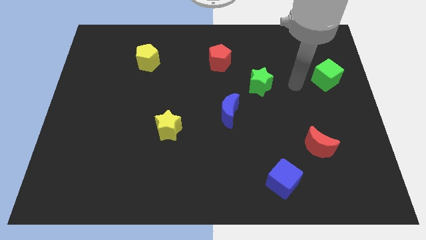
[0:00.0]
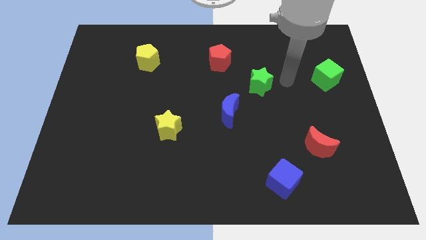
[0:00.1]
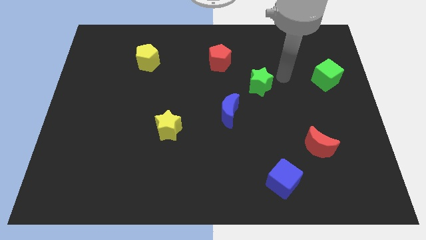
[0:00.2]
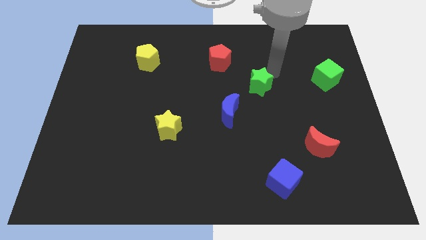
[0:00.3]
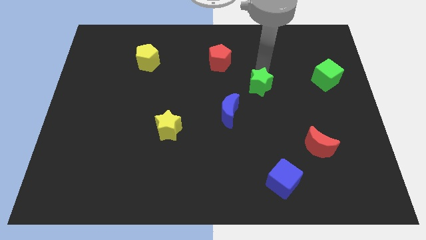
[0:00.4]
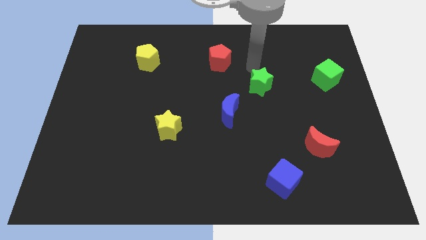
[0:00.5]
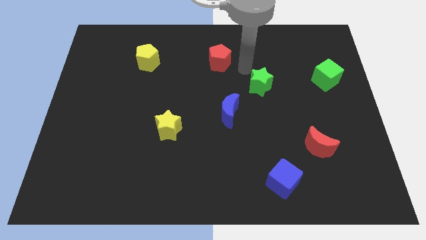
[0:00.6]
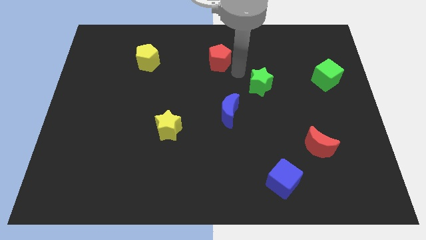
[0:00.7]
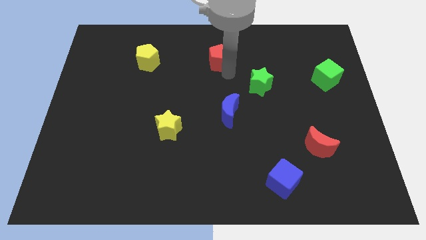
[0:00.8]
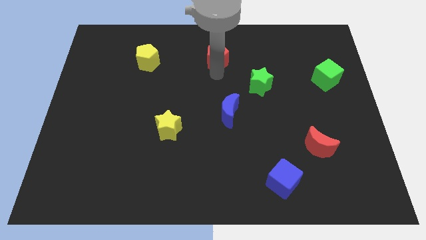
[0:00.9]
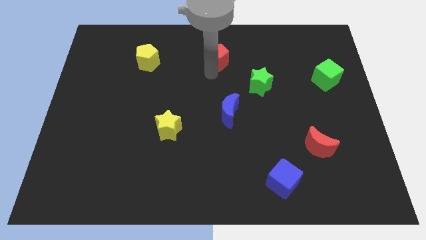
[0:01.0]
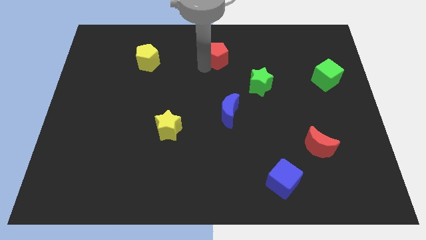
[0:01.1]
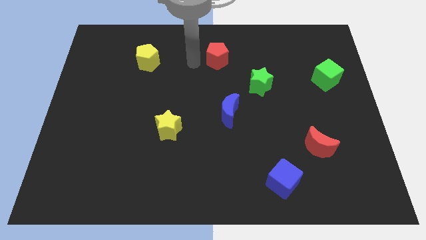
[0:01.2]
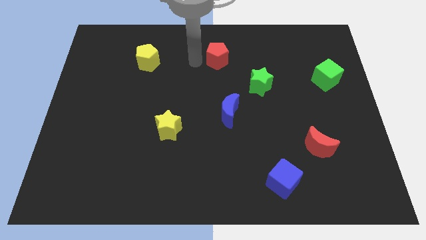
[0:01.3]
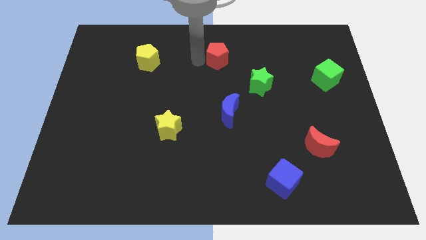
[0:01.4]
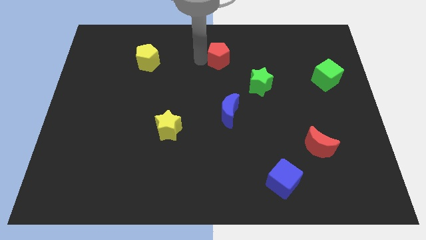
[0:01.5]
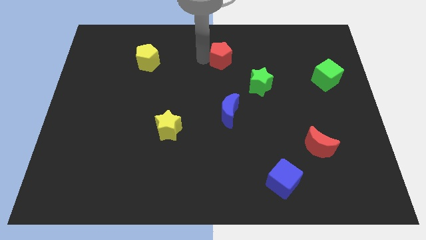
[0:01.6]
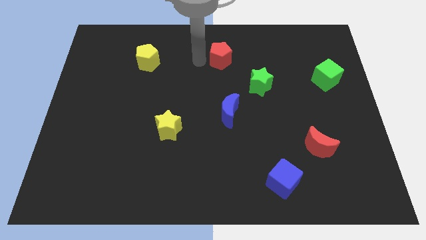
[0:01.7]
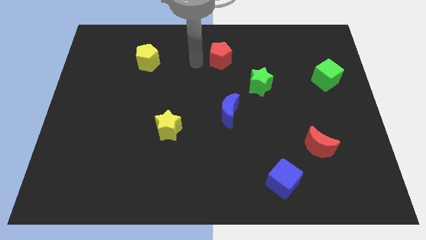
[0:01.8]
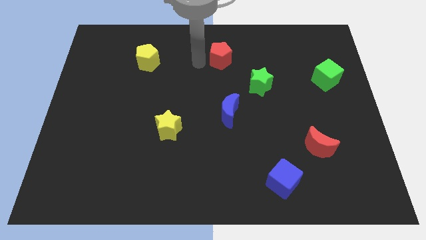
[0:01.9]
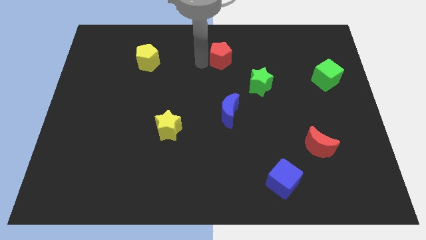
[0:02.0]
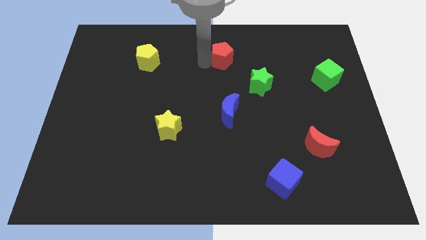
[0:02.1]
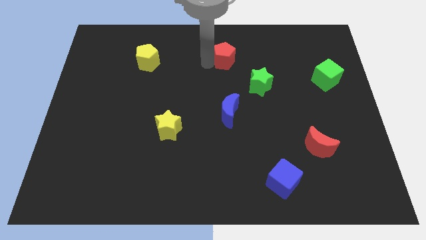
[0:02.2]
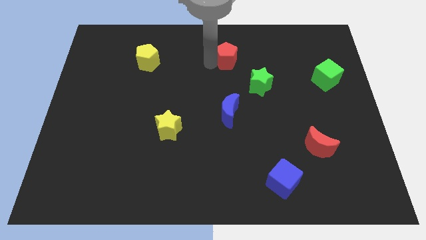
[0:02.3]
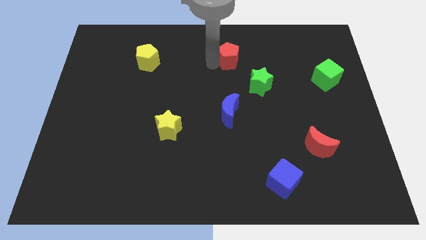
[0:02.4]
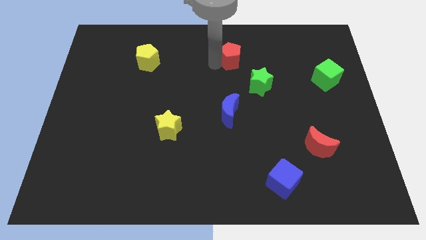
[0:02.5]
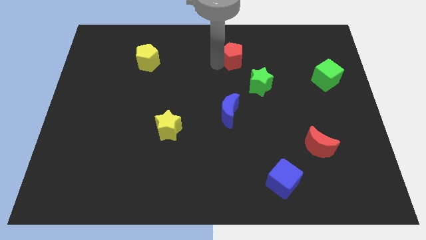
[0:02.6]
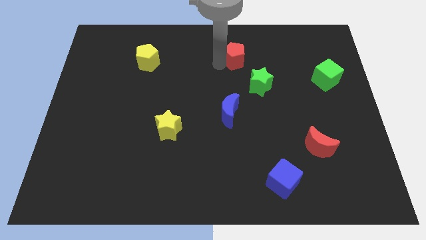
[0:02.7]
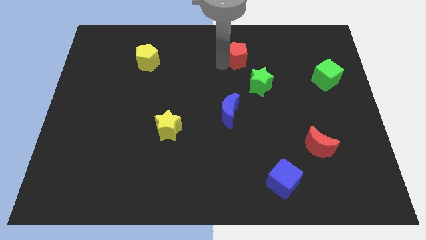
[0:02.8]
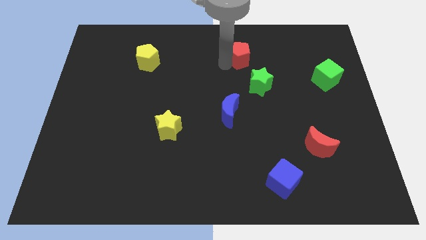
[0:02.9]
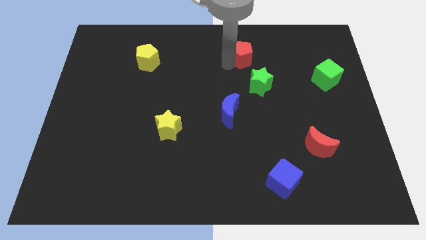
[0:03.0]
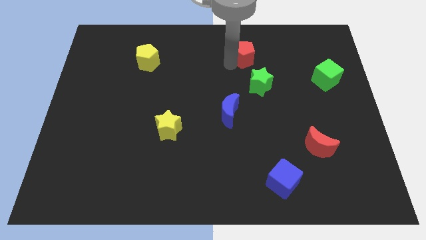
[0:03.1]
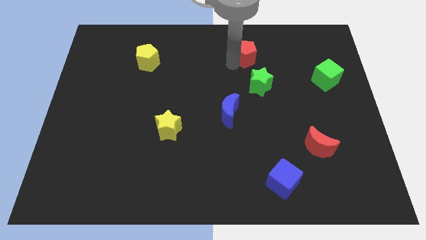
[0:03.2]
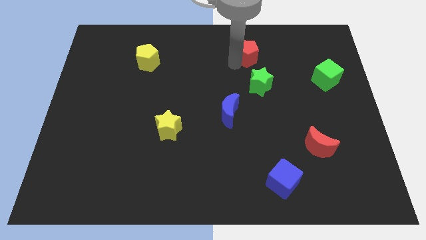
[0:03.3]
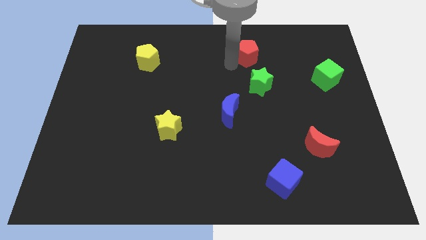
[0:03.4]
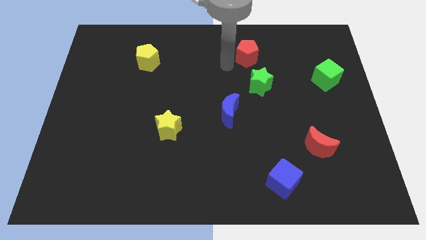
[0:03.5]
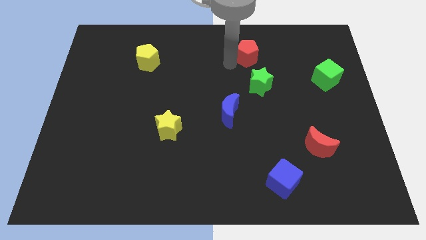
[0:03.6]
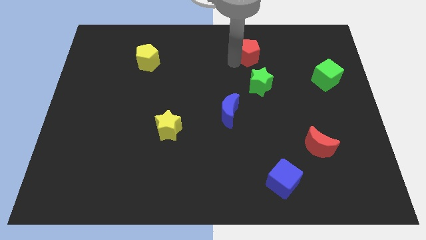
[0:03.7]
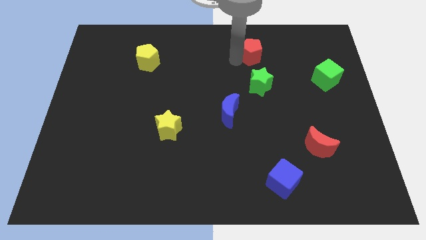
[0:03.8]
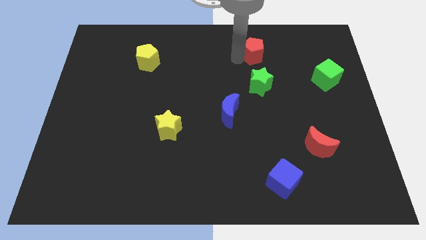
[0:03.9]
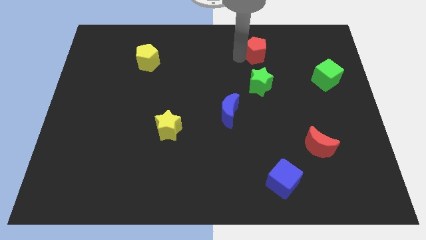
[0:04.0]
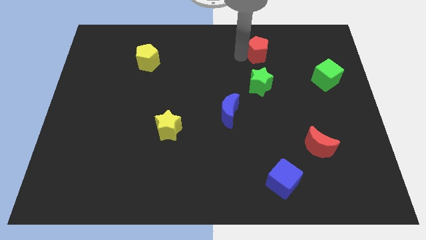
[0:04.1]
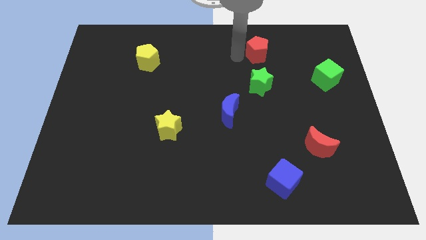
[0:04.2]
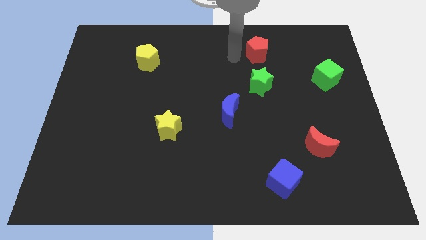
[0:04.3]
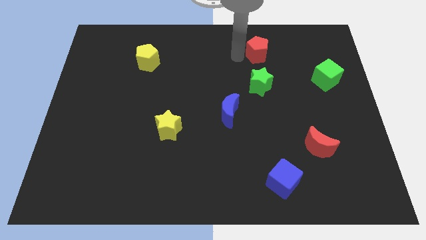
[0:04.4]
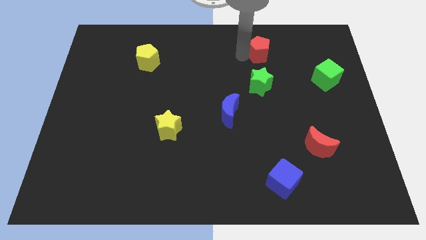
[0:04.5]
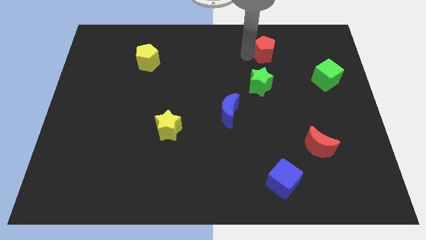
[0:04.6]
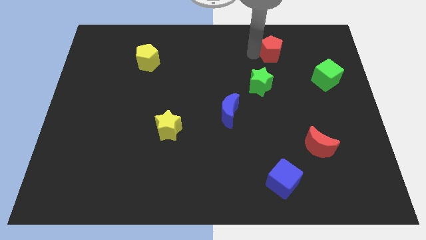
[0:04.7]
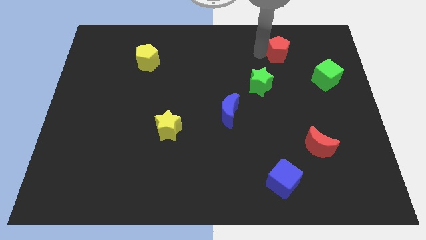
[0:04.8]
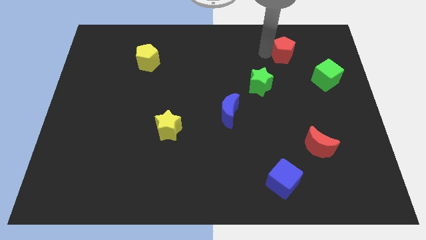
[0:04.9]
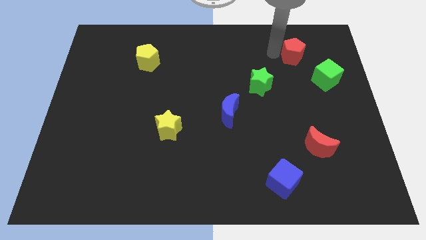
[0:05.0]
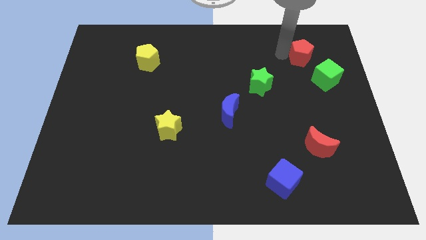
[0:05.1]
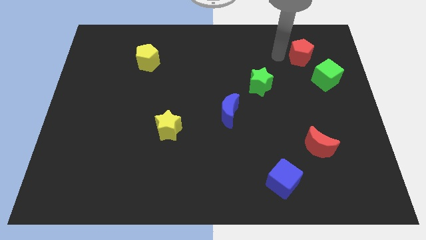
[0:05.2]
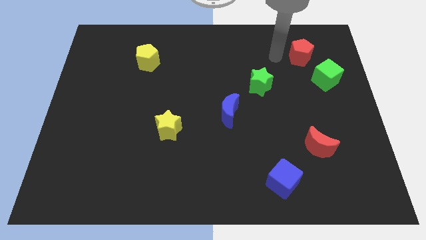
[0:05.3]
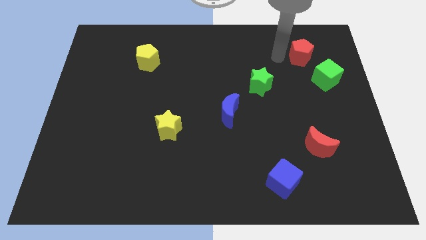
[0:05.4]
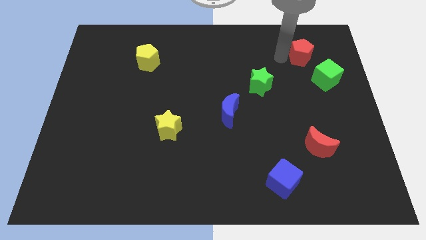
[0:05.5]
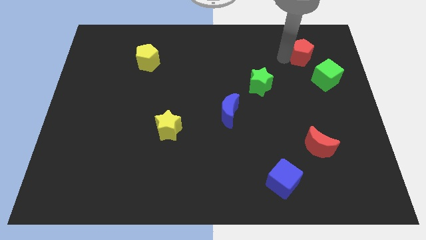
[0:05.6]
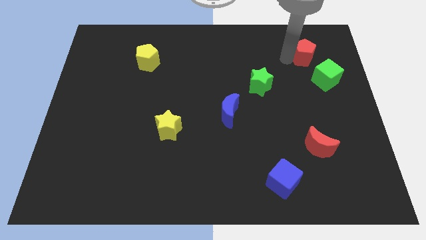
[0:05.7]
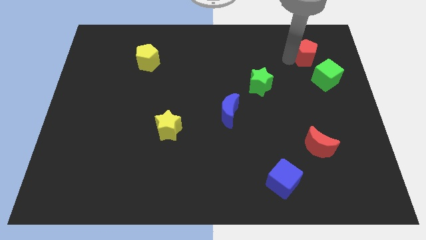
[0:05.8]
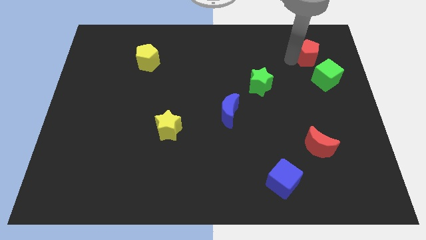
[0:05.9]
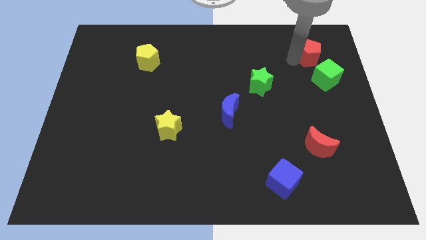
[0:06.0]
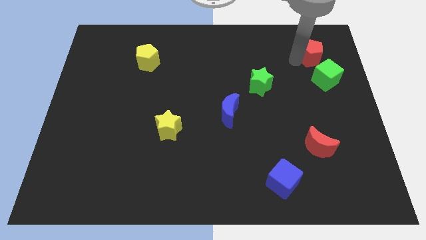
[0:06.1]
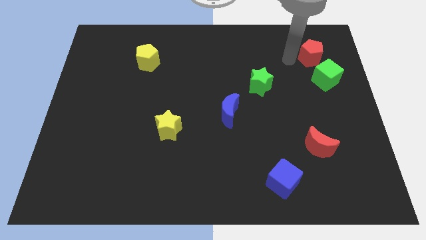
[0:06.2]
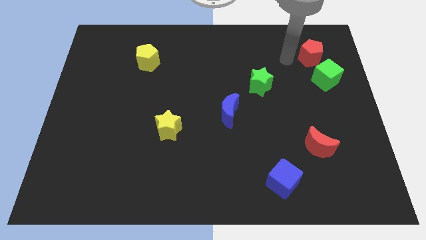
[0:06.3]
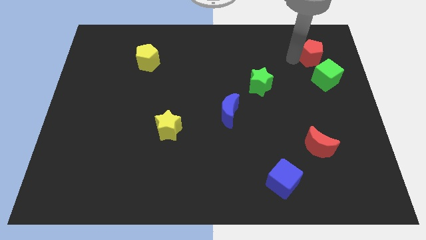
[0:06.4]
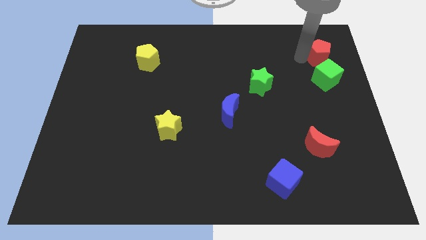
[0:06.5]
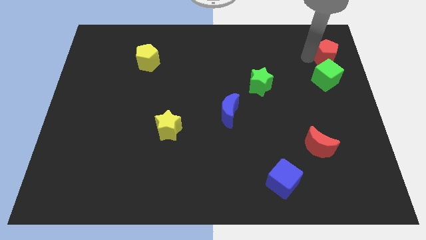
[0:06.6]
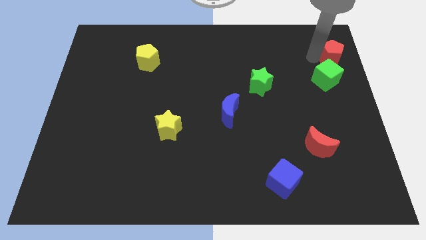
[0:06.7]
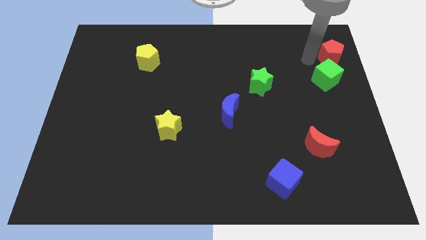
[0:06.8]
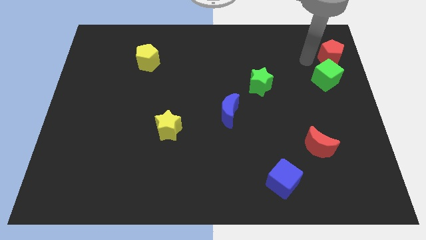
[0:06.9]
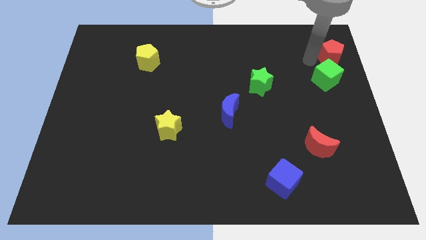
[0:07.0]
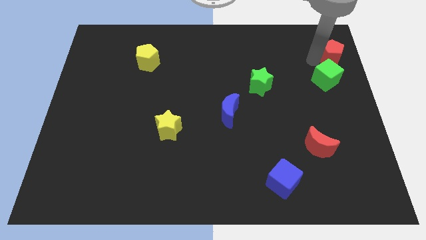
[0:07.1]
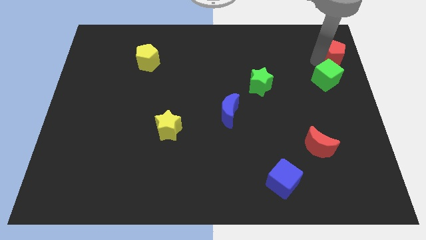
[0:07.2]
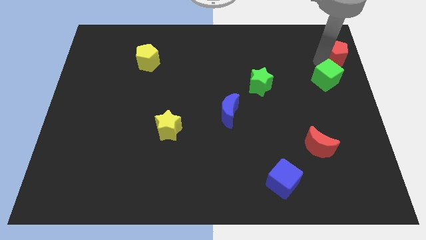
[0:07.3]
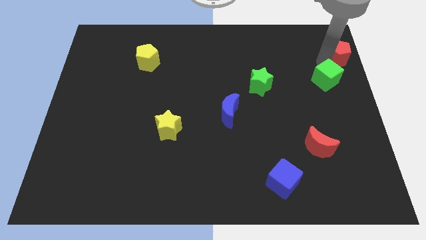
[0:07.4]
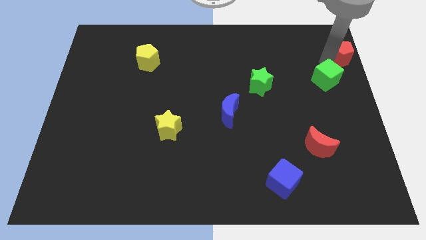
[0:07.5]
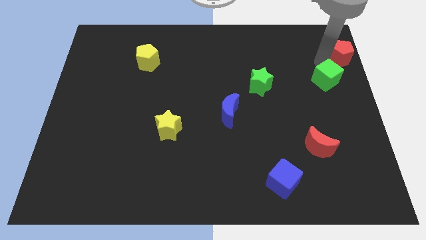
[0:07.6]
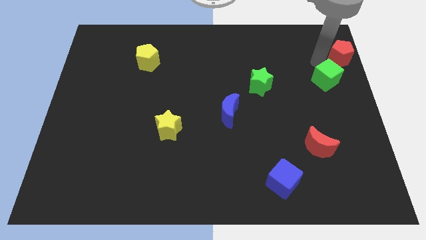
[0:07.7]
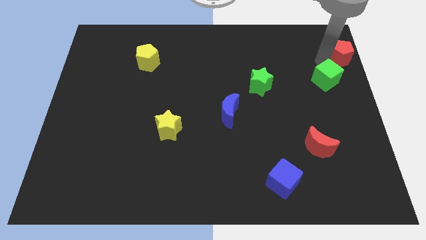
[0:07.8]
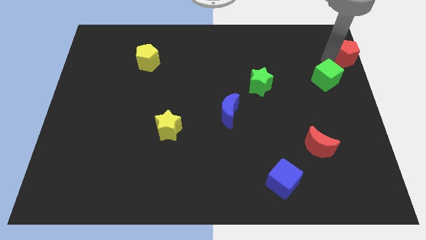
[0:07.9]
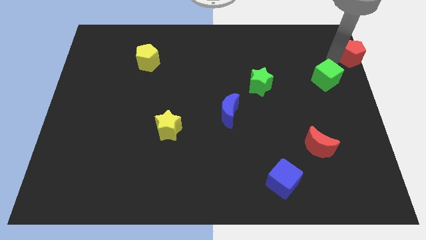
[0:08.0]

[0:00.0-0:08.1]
move the red pentagon to the upper right corner
